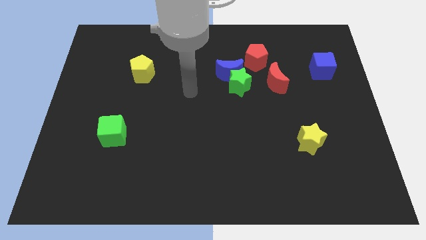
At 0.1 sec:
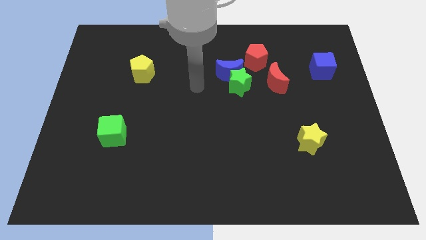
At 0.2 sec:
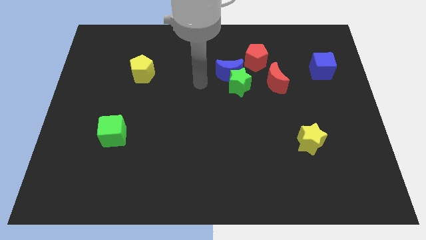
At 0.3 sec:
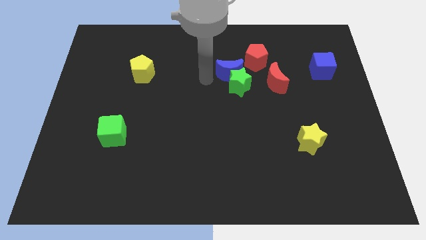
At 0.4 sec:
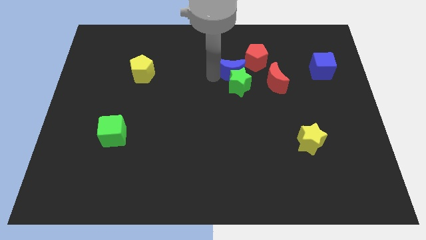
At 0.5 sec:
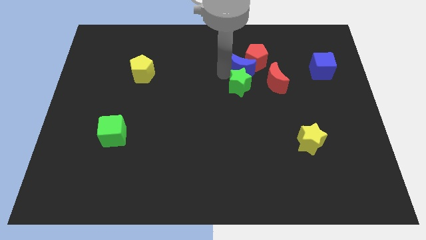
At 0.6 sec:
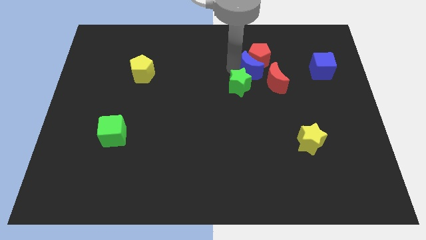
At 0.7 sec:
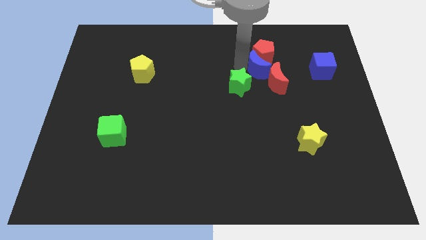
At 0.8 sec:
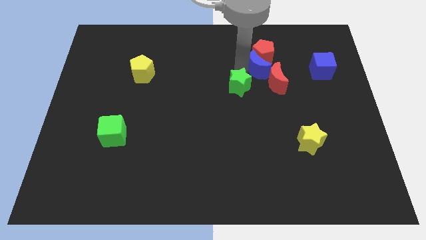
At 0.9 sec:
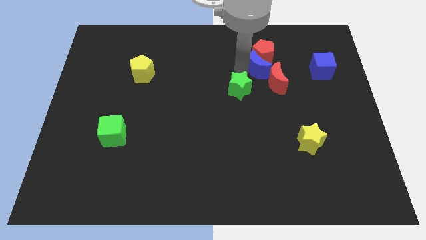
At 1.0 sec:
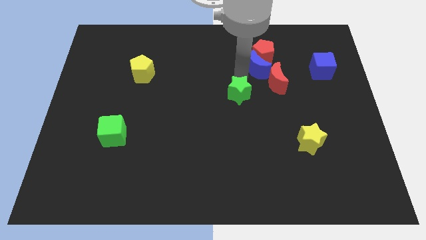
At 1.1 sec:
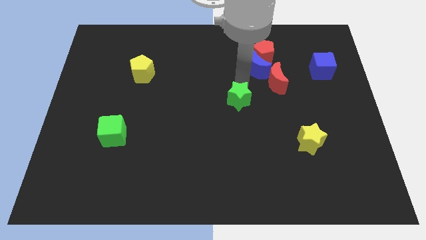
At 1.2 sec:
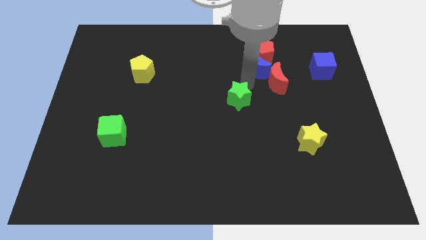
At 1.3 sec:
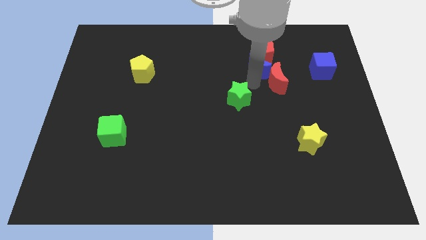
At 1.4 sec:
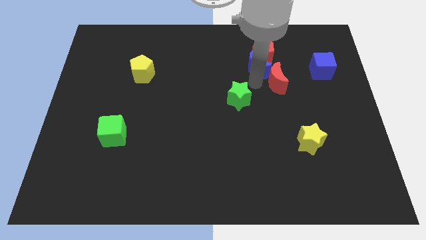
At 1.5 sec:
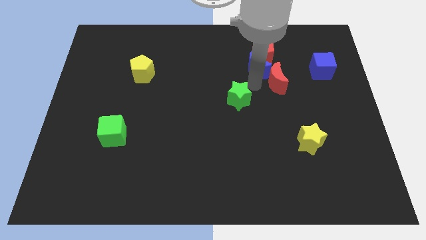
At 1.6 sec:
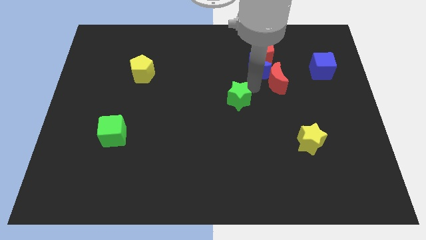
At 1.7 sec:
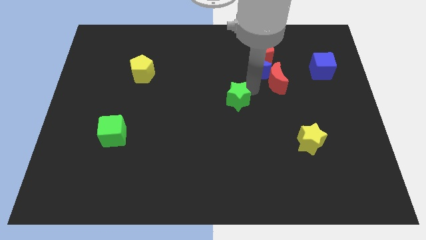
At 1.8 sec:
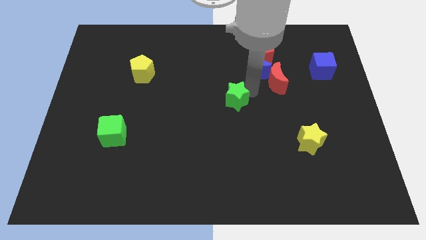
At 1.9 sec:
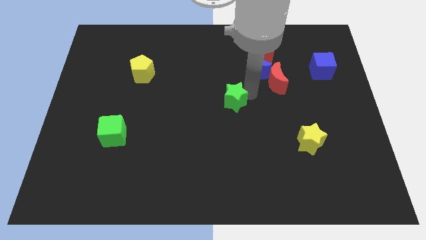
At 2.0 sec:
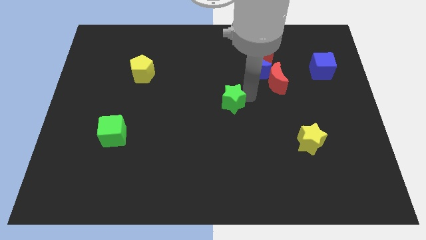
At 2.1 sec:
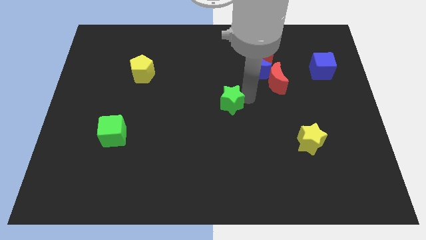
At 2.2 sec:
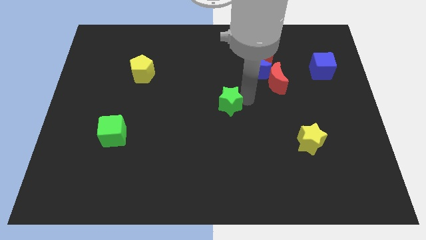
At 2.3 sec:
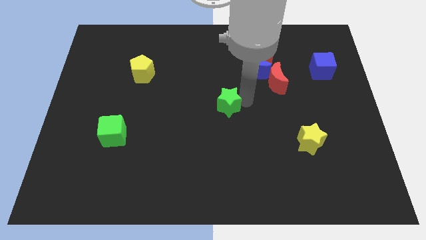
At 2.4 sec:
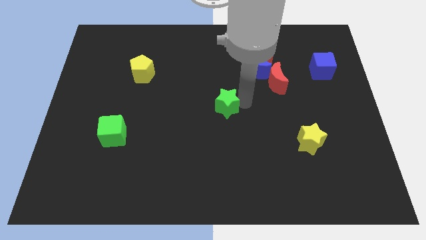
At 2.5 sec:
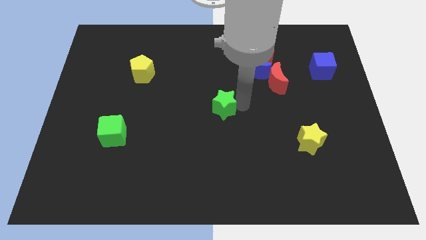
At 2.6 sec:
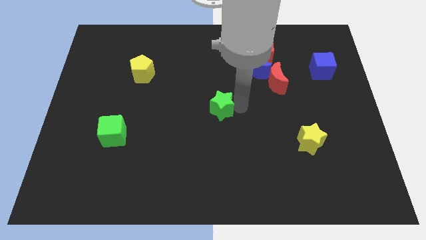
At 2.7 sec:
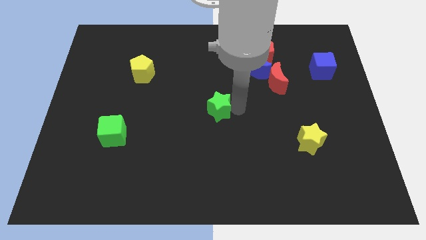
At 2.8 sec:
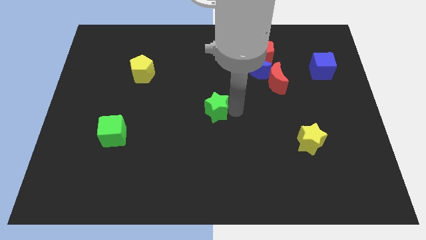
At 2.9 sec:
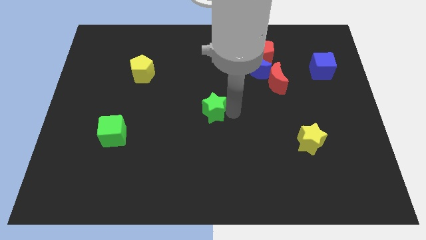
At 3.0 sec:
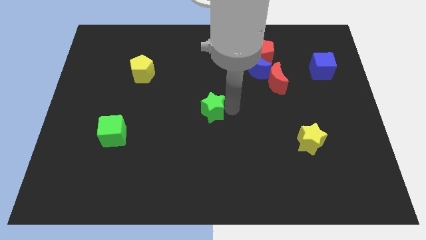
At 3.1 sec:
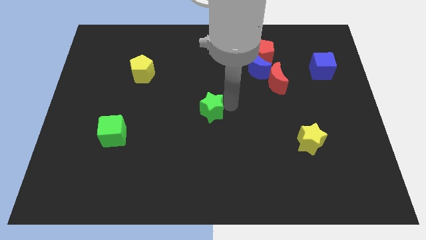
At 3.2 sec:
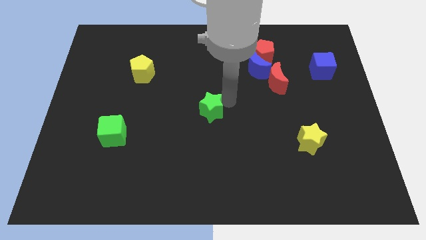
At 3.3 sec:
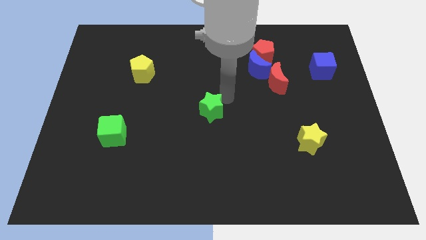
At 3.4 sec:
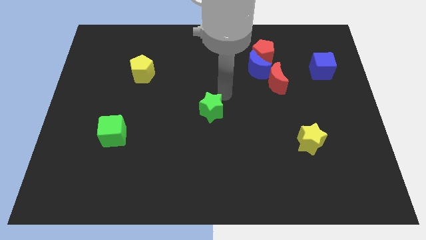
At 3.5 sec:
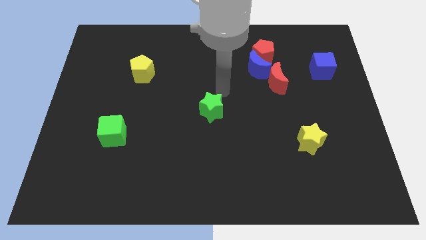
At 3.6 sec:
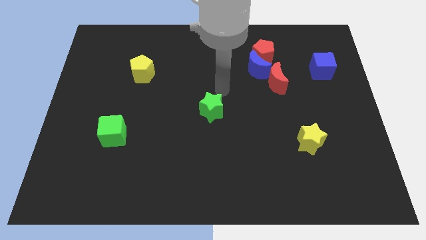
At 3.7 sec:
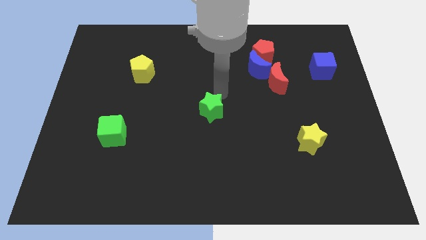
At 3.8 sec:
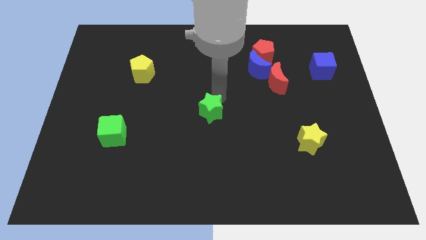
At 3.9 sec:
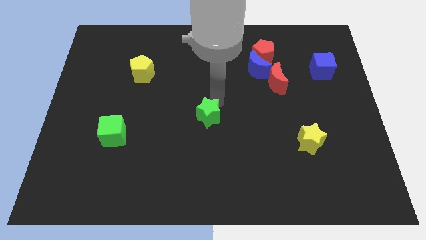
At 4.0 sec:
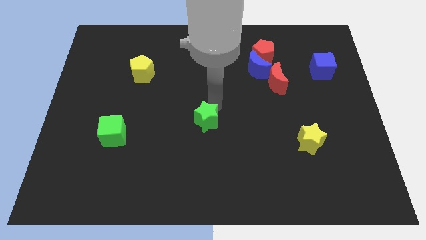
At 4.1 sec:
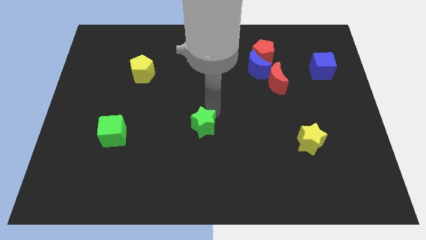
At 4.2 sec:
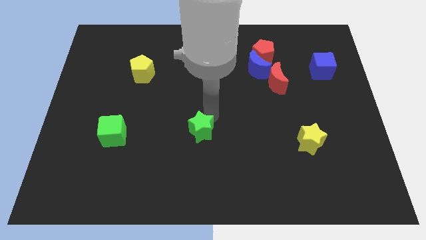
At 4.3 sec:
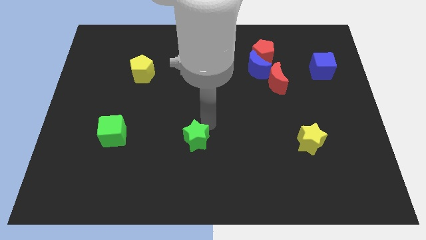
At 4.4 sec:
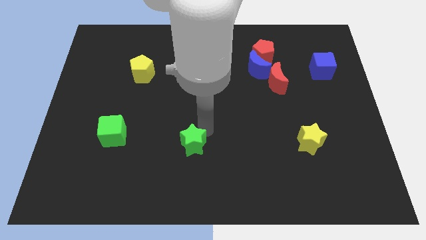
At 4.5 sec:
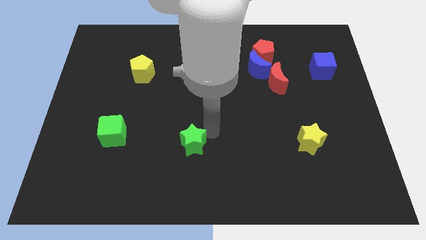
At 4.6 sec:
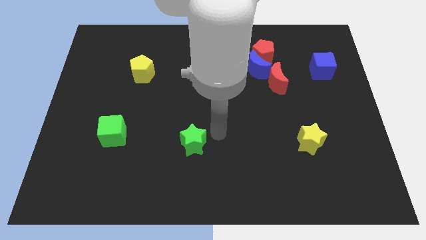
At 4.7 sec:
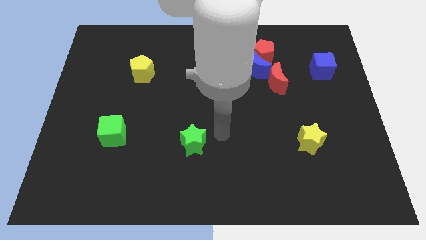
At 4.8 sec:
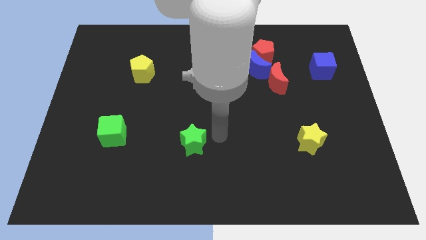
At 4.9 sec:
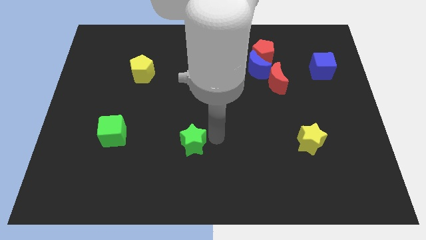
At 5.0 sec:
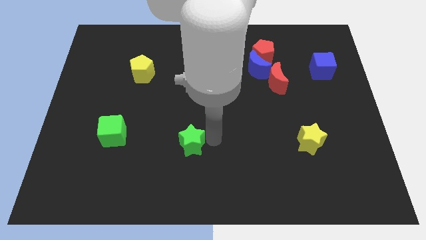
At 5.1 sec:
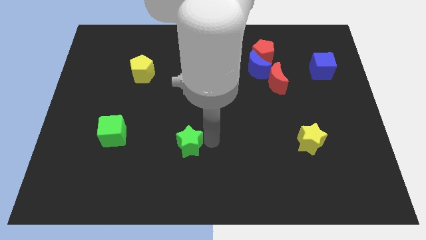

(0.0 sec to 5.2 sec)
move the green star down and then to the left

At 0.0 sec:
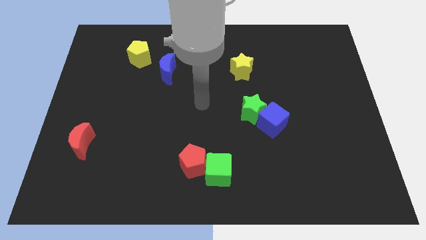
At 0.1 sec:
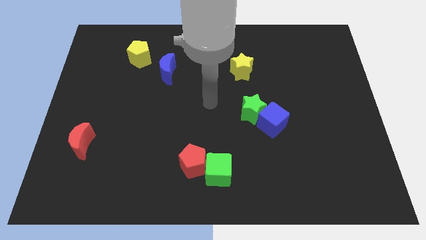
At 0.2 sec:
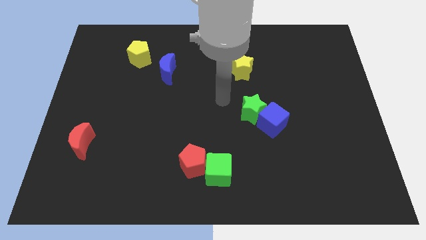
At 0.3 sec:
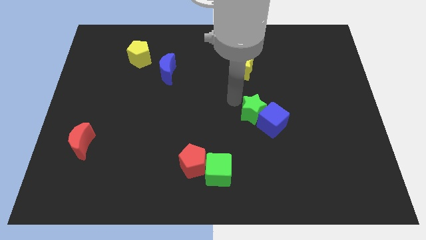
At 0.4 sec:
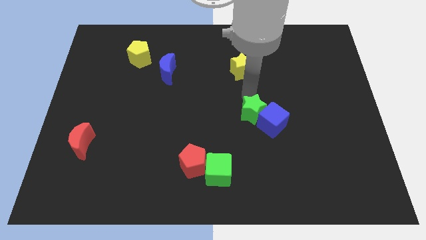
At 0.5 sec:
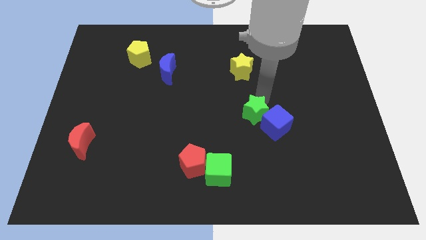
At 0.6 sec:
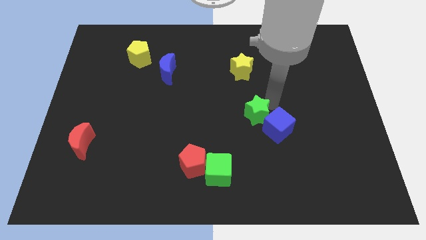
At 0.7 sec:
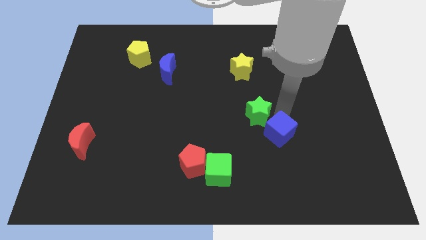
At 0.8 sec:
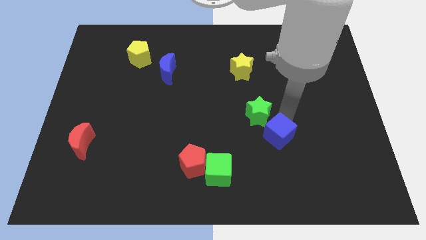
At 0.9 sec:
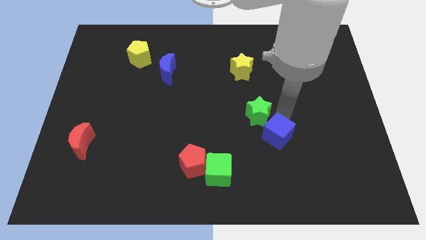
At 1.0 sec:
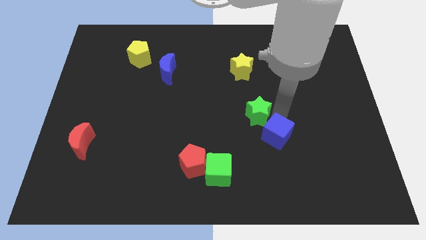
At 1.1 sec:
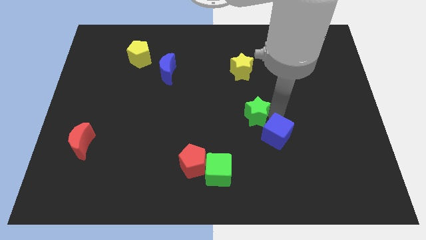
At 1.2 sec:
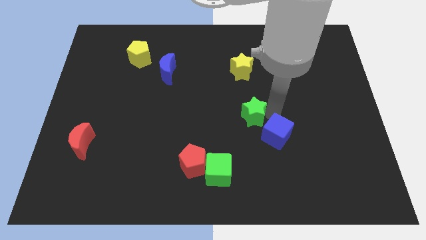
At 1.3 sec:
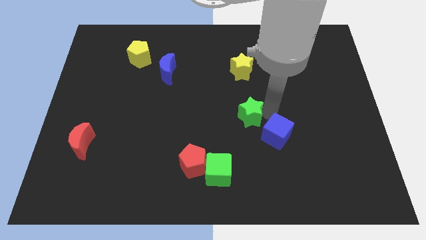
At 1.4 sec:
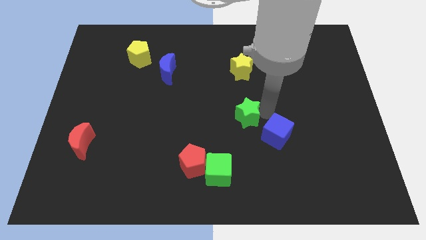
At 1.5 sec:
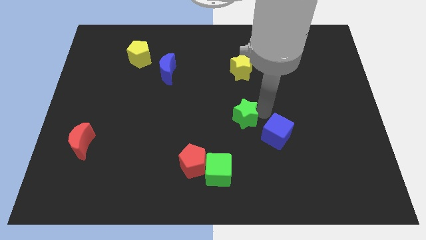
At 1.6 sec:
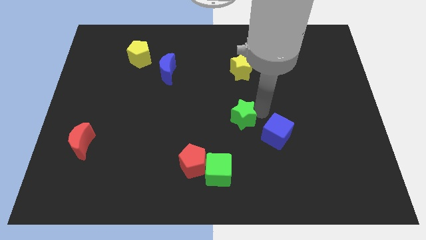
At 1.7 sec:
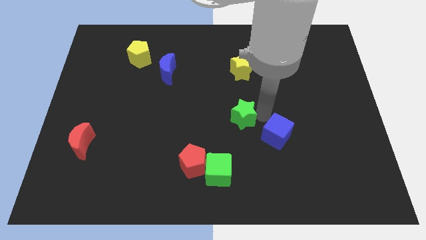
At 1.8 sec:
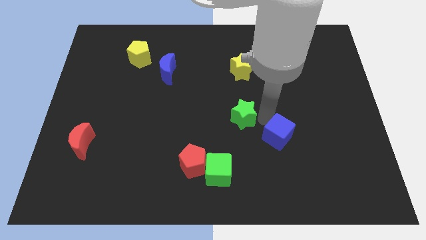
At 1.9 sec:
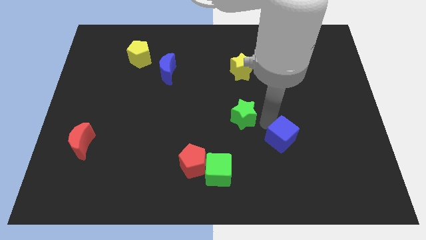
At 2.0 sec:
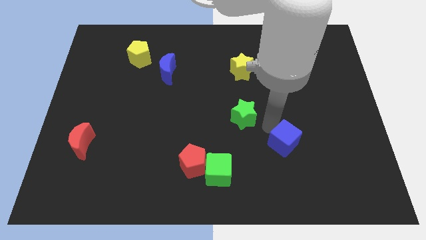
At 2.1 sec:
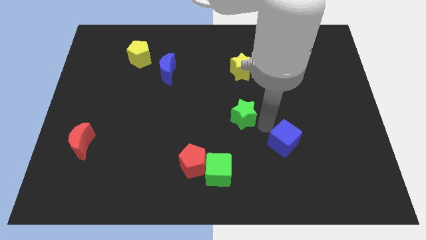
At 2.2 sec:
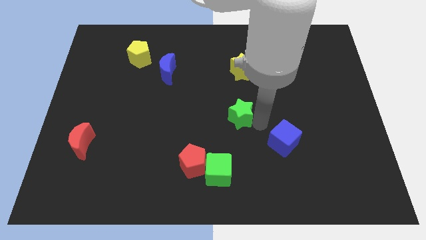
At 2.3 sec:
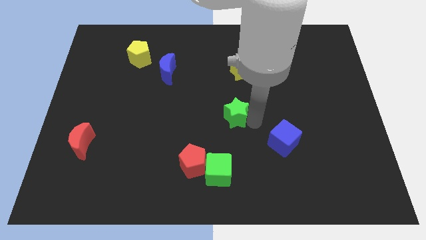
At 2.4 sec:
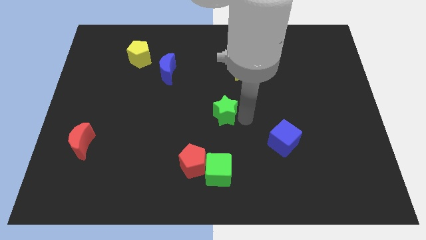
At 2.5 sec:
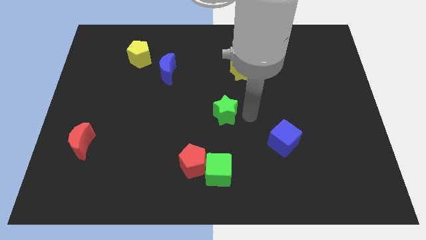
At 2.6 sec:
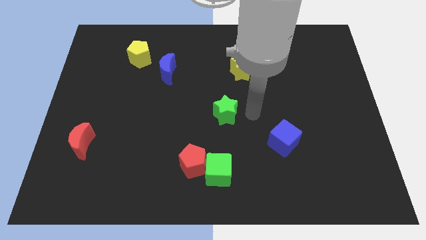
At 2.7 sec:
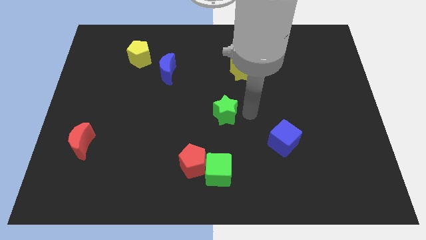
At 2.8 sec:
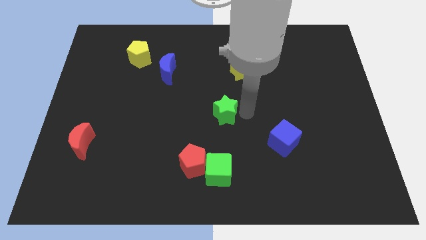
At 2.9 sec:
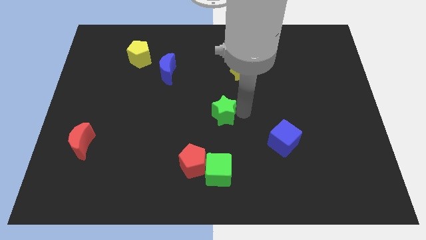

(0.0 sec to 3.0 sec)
slightly slide the green star to the left
